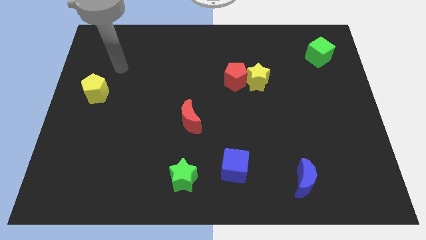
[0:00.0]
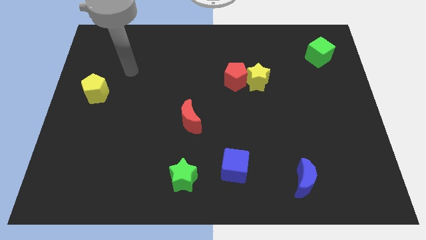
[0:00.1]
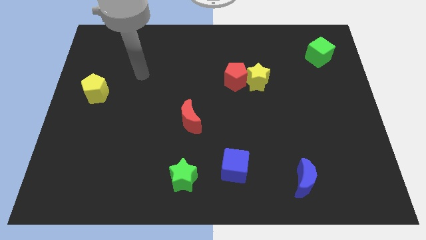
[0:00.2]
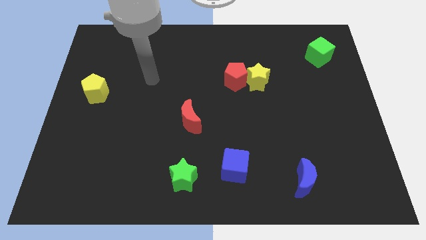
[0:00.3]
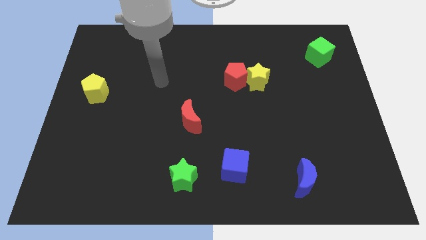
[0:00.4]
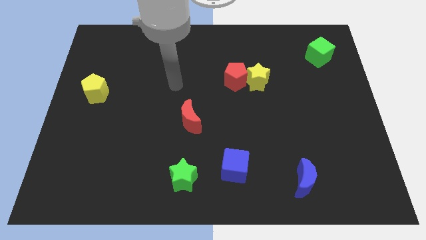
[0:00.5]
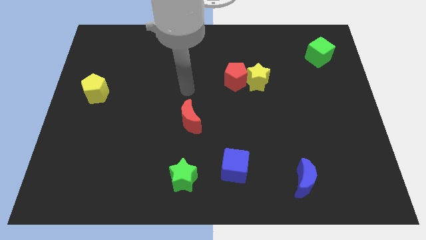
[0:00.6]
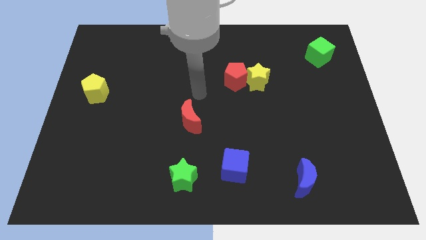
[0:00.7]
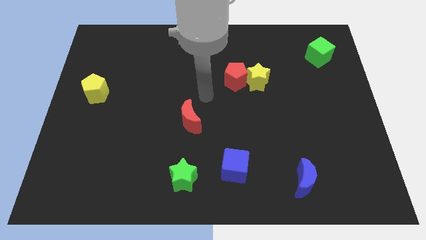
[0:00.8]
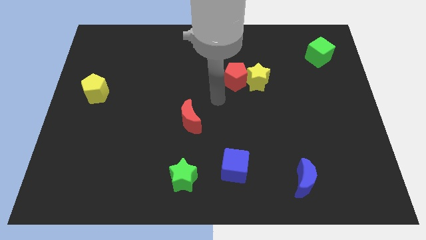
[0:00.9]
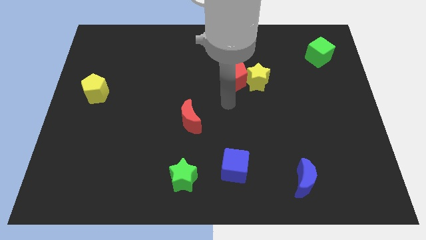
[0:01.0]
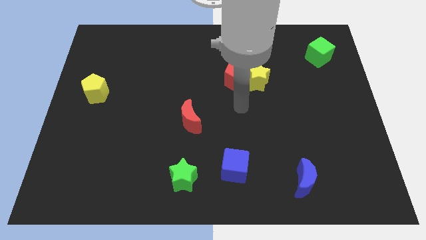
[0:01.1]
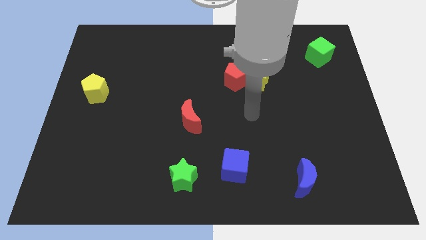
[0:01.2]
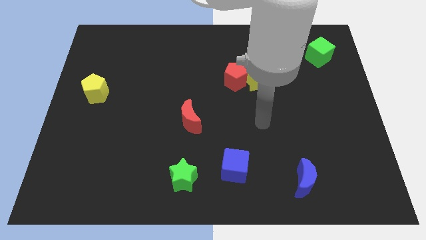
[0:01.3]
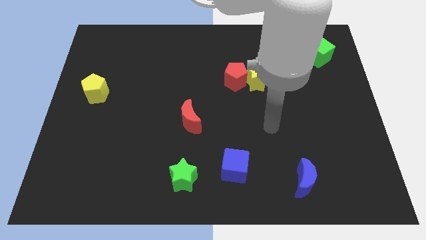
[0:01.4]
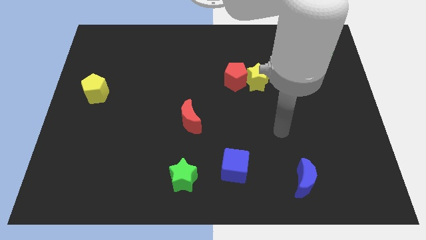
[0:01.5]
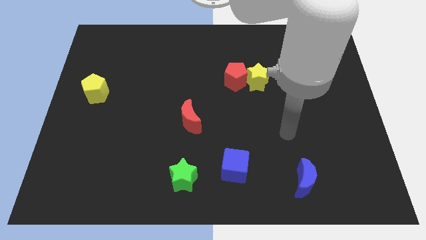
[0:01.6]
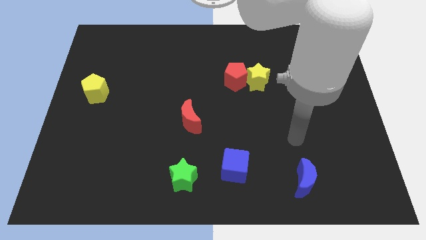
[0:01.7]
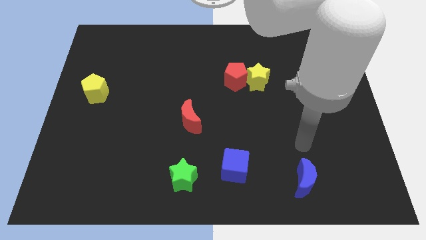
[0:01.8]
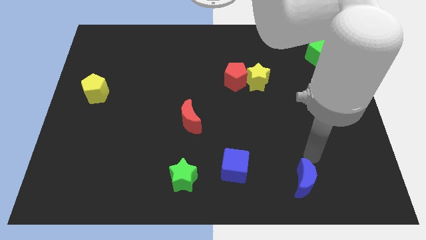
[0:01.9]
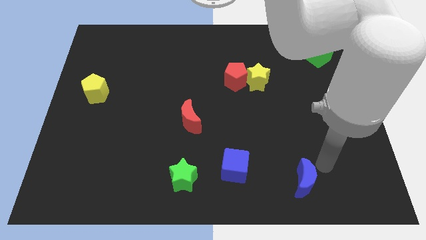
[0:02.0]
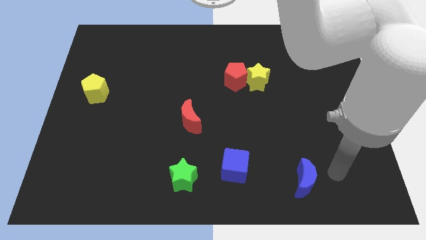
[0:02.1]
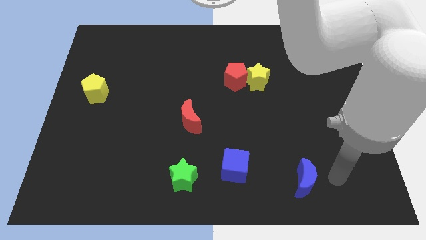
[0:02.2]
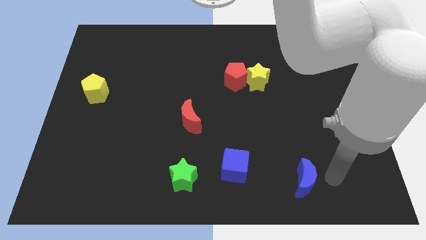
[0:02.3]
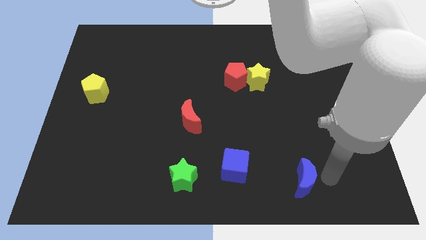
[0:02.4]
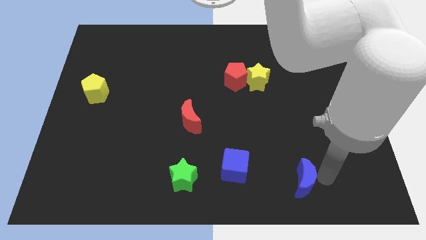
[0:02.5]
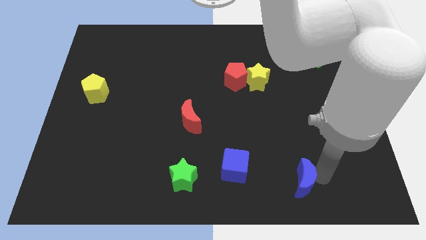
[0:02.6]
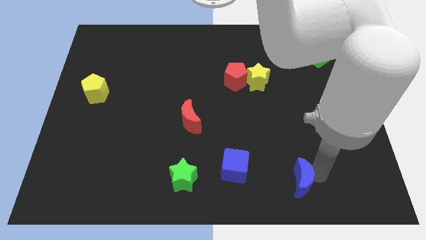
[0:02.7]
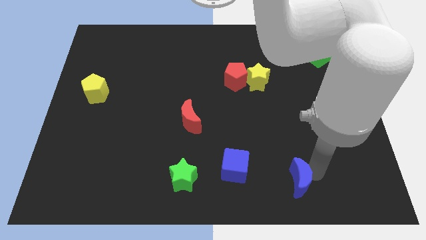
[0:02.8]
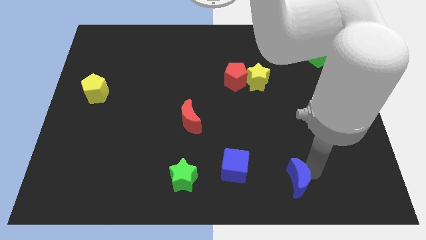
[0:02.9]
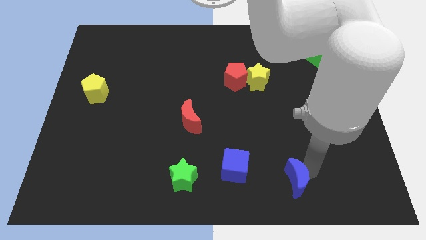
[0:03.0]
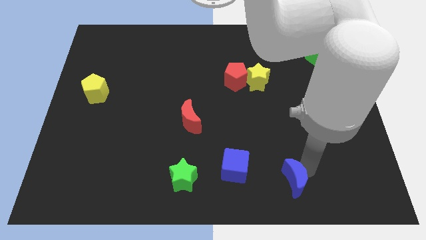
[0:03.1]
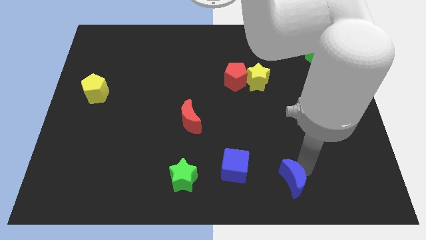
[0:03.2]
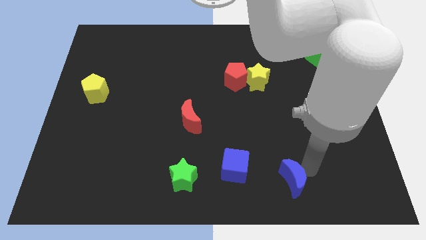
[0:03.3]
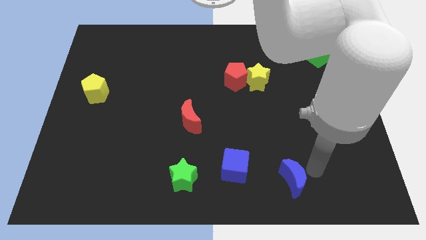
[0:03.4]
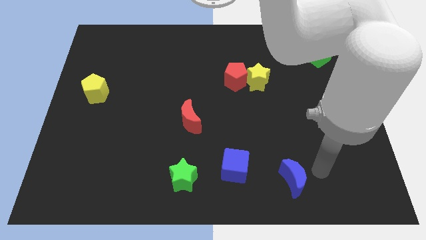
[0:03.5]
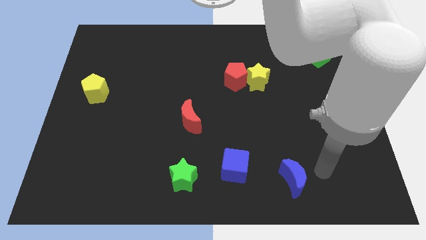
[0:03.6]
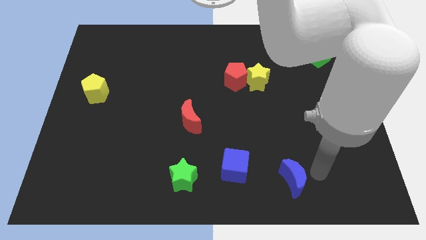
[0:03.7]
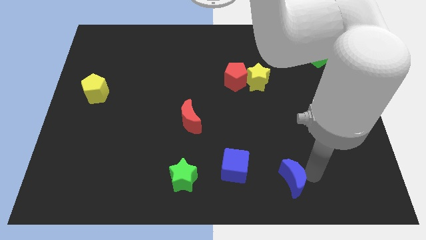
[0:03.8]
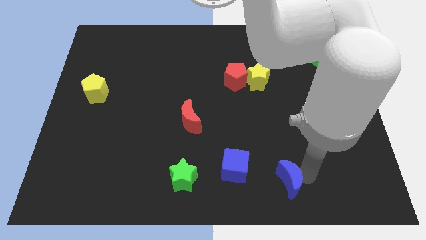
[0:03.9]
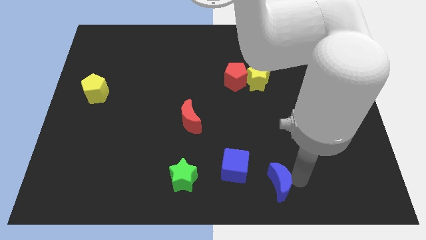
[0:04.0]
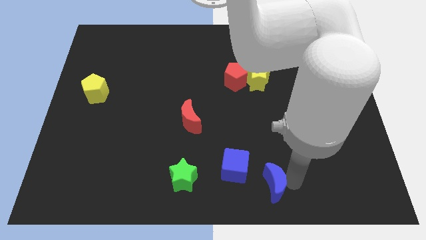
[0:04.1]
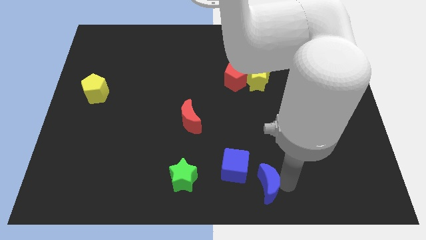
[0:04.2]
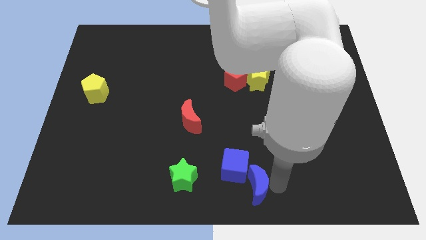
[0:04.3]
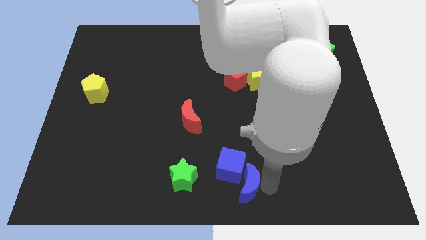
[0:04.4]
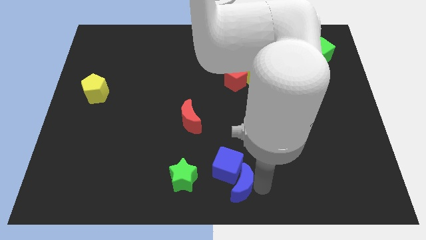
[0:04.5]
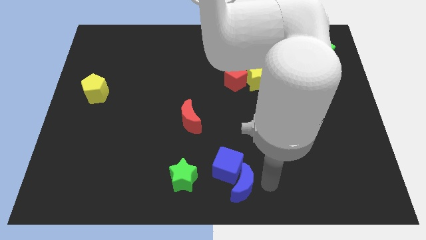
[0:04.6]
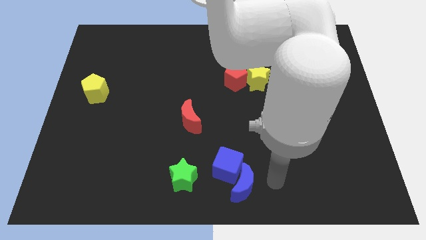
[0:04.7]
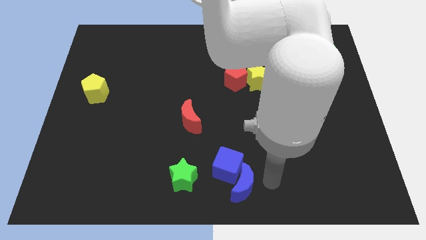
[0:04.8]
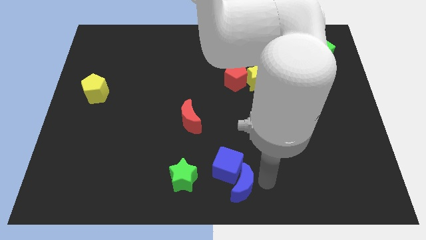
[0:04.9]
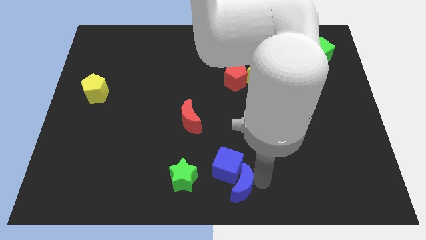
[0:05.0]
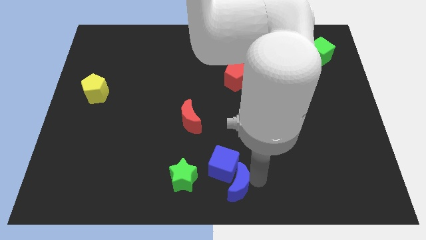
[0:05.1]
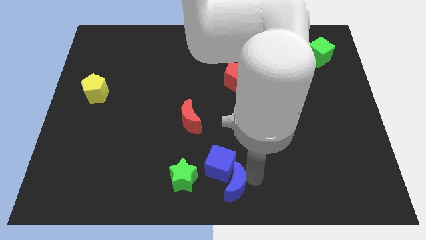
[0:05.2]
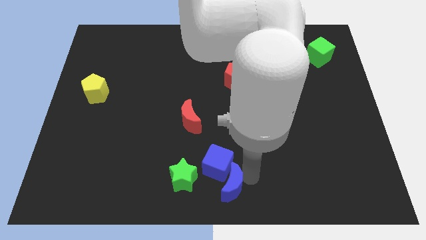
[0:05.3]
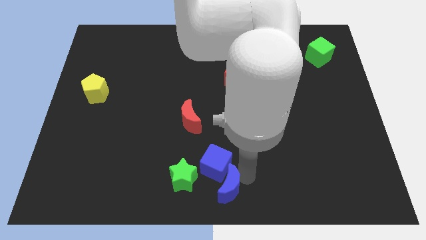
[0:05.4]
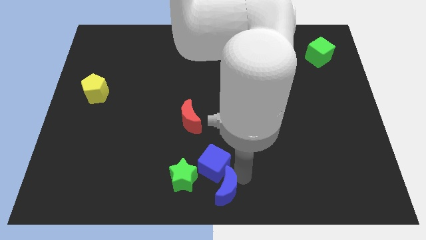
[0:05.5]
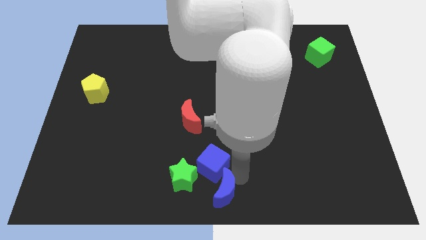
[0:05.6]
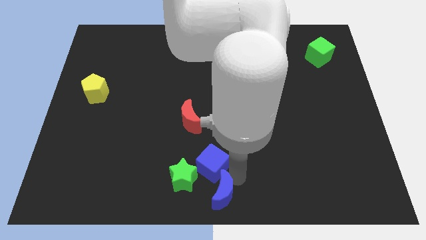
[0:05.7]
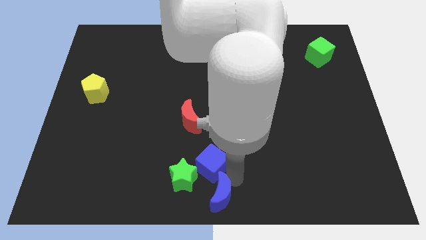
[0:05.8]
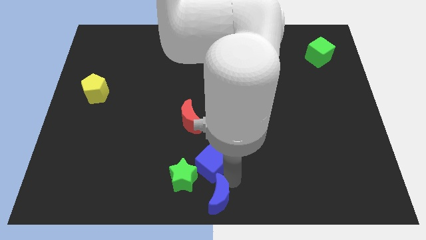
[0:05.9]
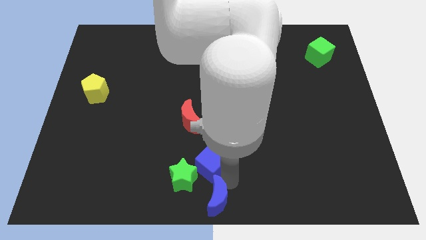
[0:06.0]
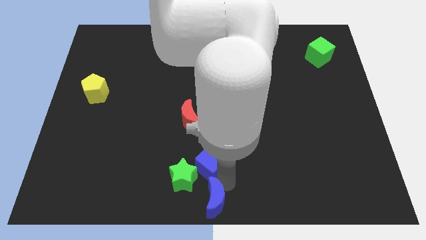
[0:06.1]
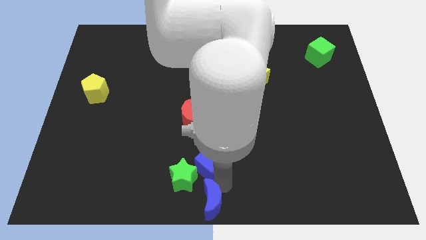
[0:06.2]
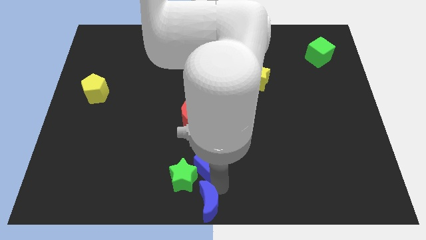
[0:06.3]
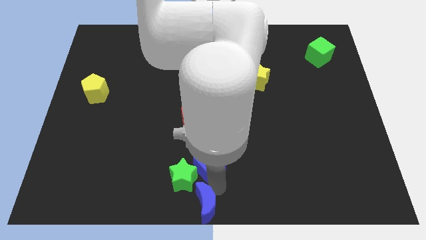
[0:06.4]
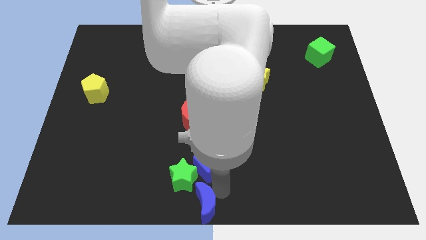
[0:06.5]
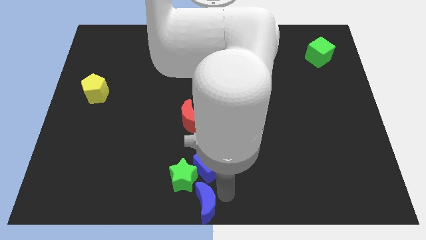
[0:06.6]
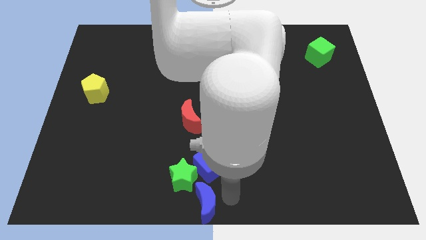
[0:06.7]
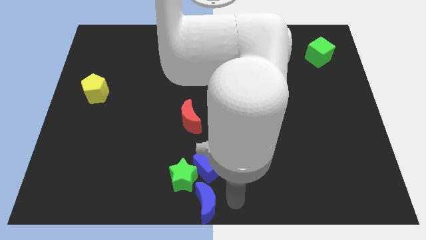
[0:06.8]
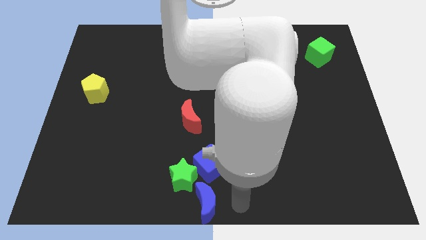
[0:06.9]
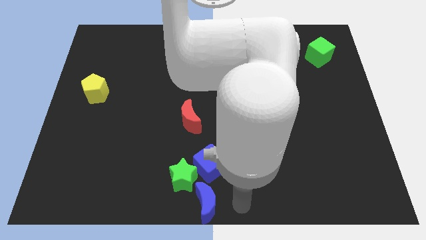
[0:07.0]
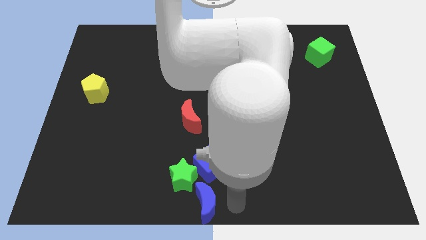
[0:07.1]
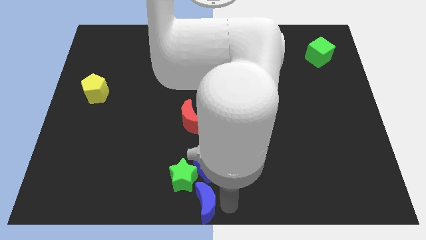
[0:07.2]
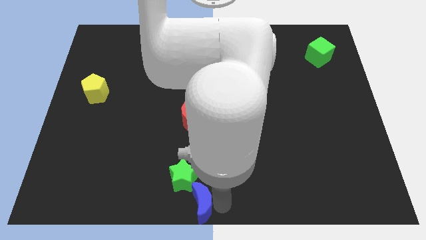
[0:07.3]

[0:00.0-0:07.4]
push the blue moon to the left

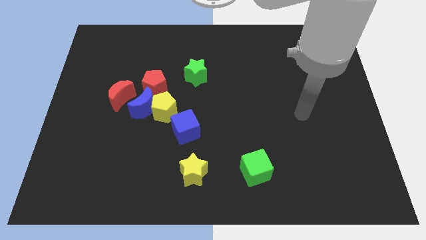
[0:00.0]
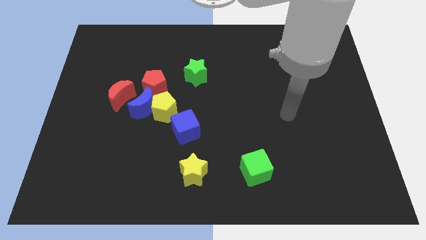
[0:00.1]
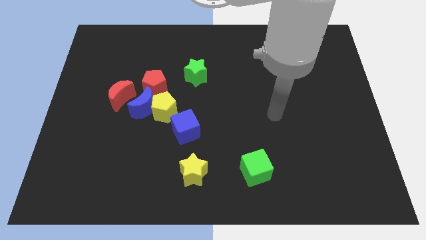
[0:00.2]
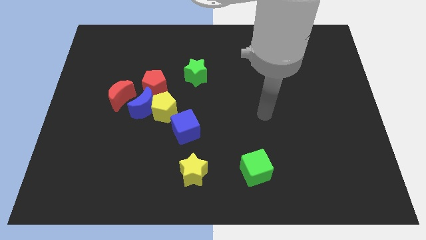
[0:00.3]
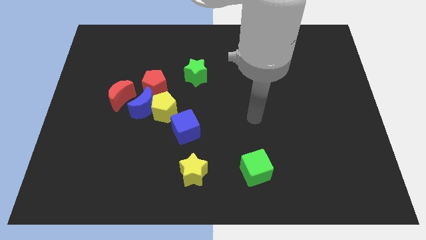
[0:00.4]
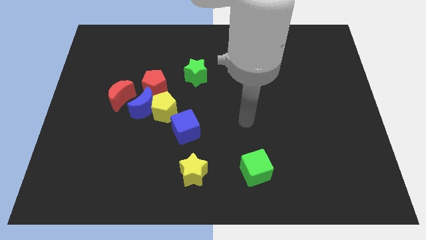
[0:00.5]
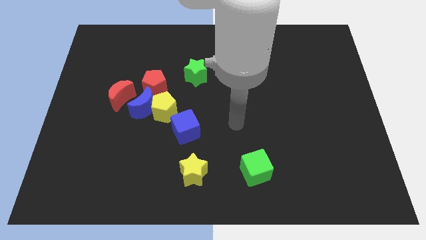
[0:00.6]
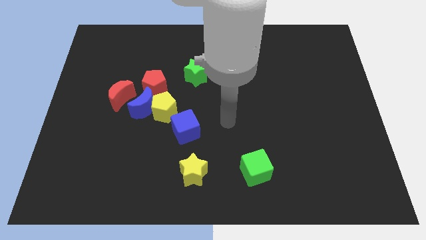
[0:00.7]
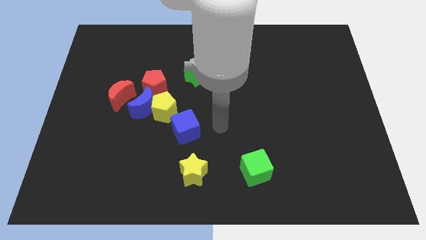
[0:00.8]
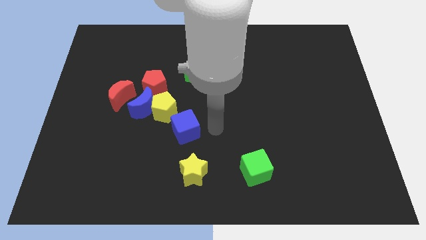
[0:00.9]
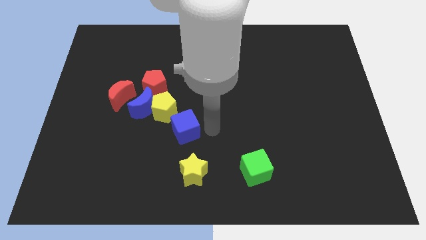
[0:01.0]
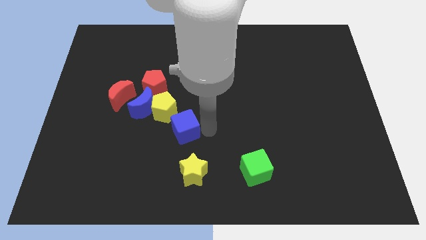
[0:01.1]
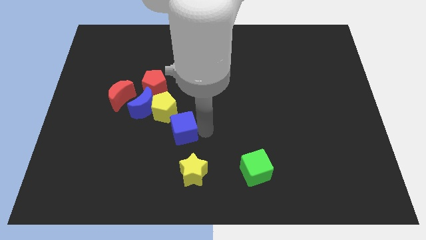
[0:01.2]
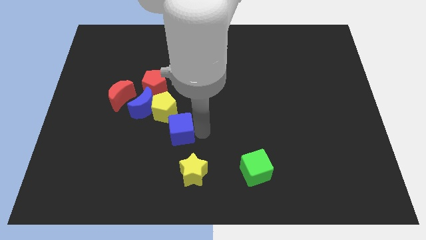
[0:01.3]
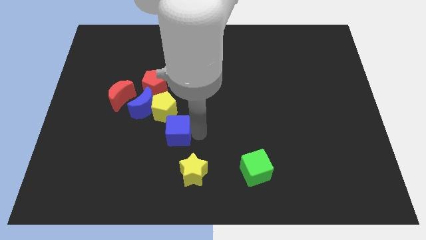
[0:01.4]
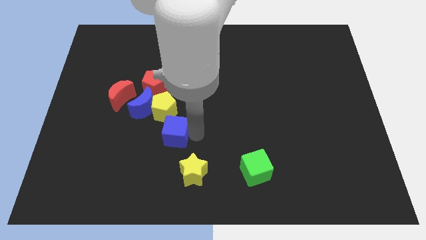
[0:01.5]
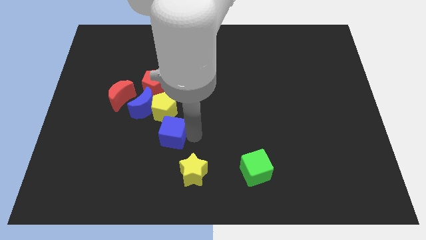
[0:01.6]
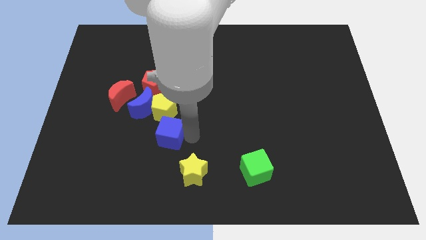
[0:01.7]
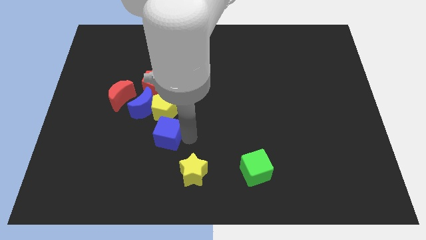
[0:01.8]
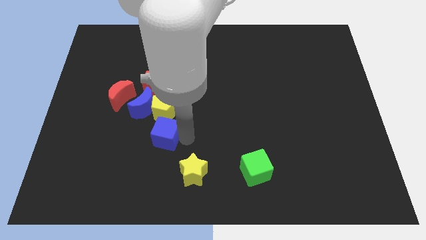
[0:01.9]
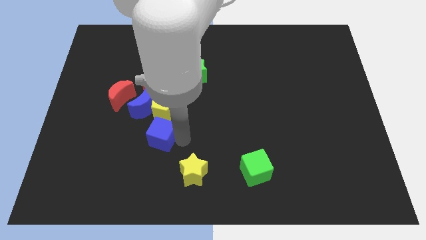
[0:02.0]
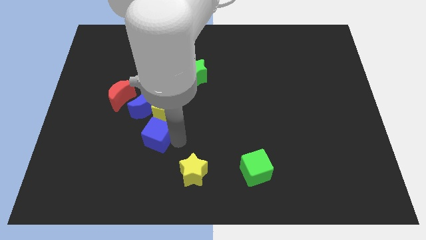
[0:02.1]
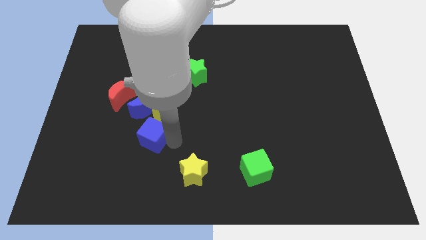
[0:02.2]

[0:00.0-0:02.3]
slightly push the blue cube to the left
